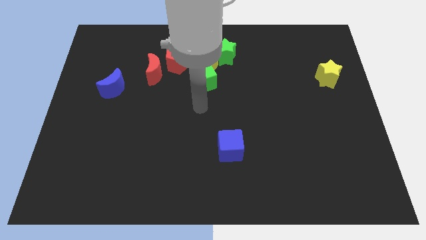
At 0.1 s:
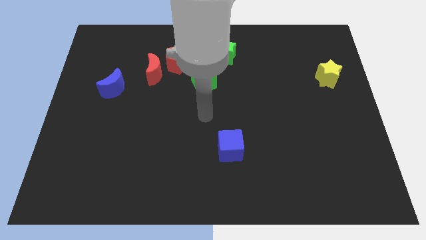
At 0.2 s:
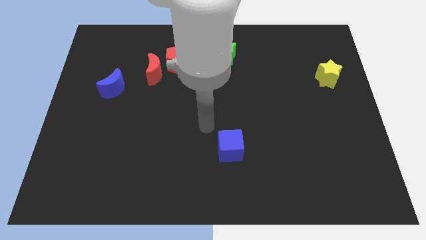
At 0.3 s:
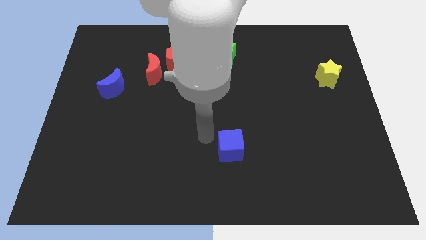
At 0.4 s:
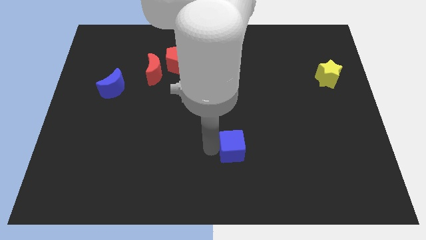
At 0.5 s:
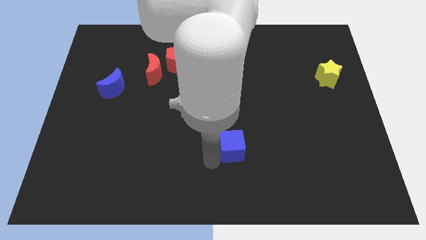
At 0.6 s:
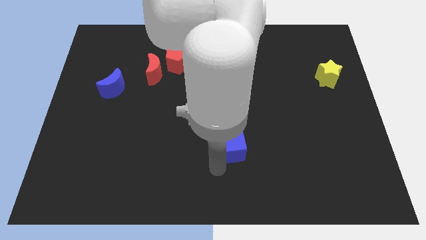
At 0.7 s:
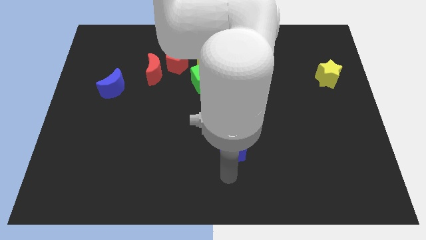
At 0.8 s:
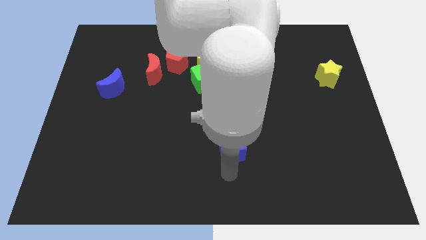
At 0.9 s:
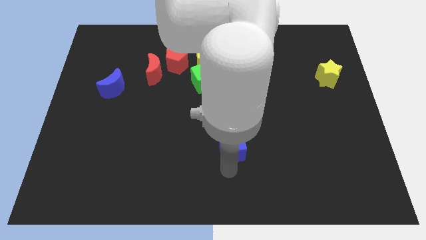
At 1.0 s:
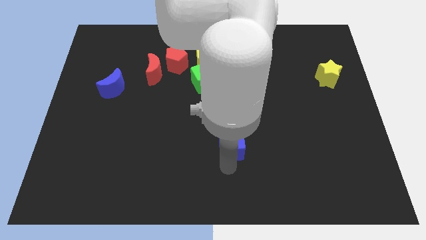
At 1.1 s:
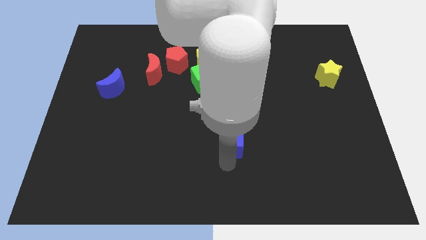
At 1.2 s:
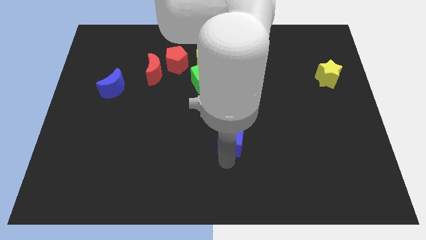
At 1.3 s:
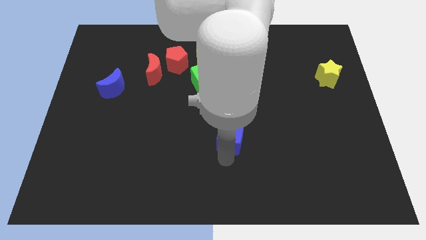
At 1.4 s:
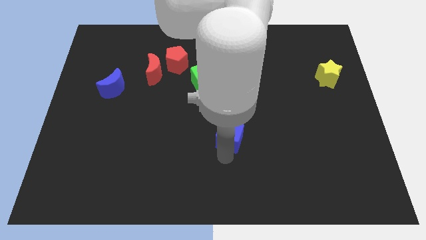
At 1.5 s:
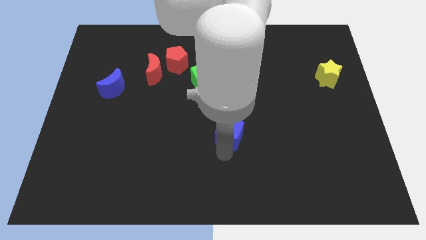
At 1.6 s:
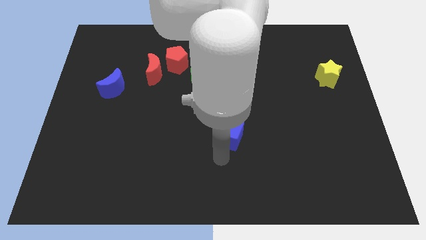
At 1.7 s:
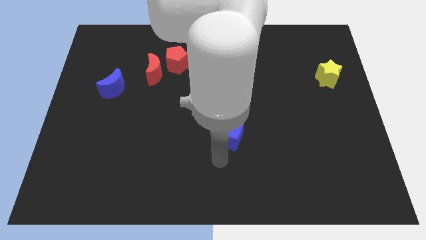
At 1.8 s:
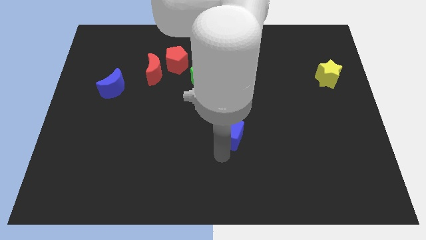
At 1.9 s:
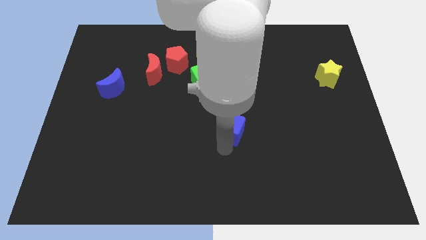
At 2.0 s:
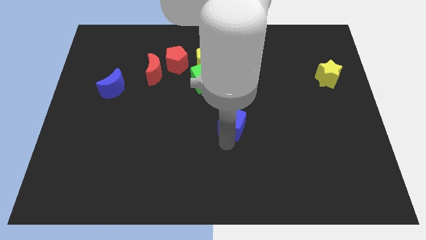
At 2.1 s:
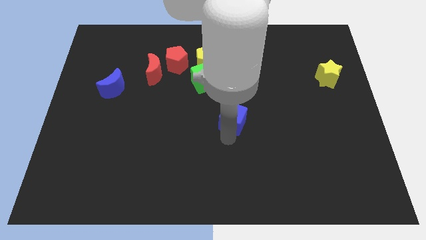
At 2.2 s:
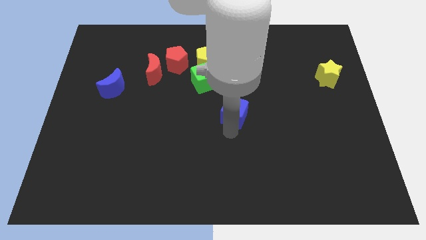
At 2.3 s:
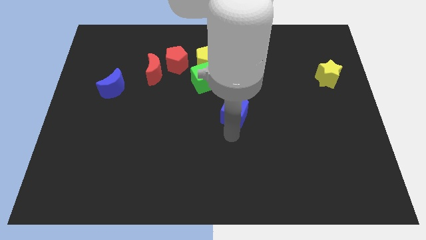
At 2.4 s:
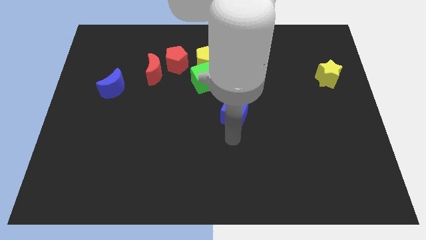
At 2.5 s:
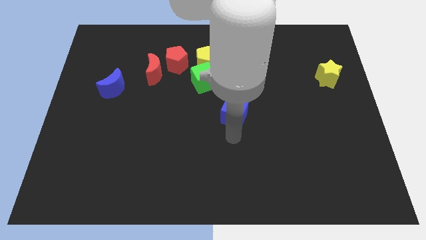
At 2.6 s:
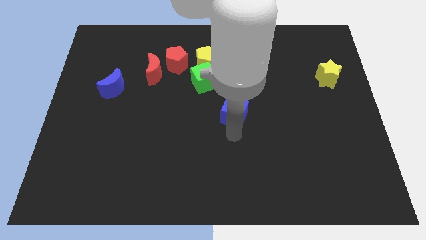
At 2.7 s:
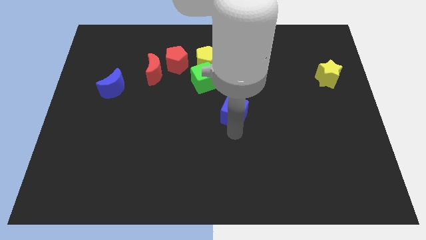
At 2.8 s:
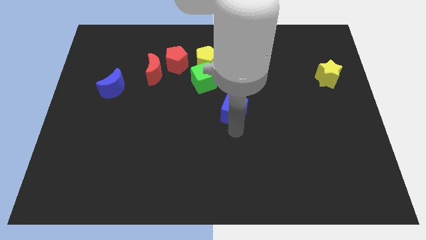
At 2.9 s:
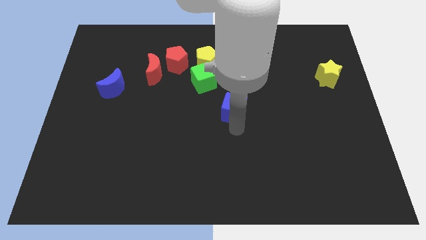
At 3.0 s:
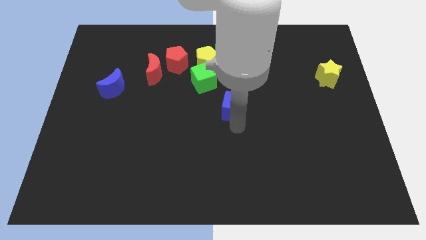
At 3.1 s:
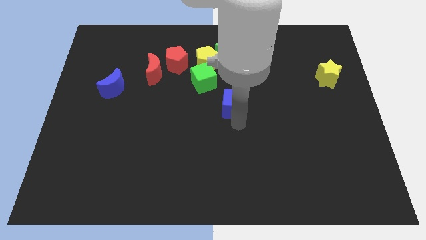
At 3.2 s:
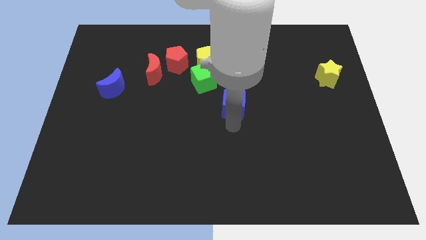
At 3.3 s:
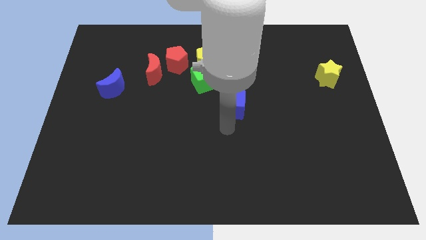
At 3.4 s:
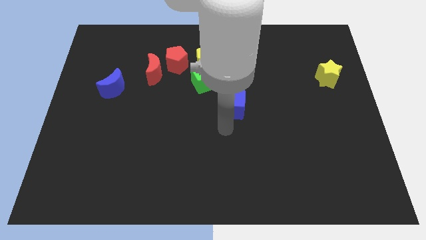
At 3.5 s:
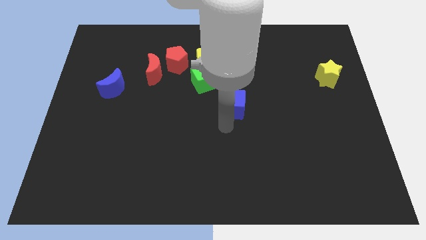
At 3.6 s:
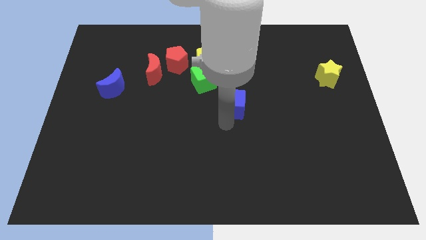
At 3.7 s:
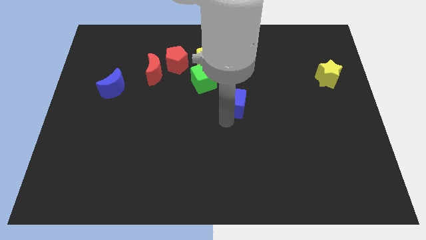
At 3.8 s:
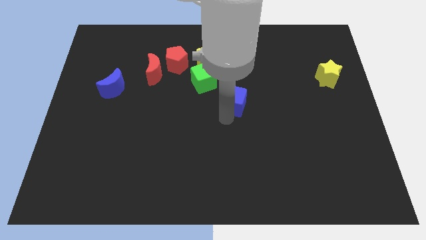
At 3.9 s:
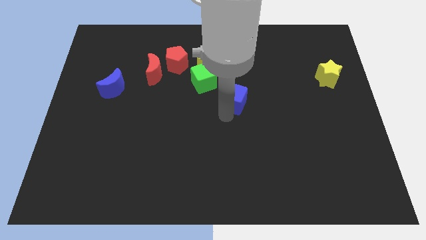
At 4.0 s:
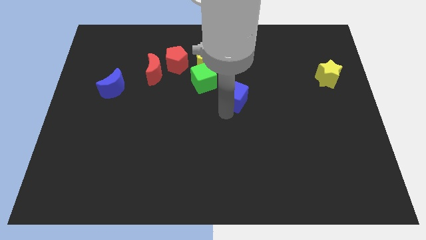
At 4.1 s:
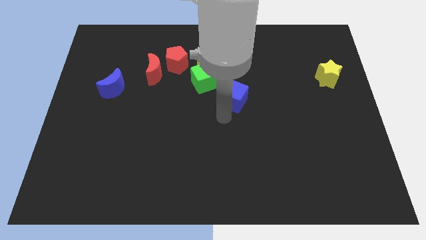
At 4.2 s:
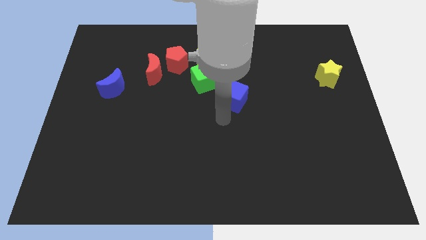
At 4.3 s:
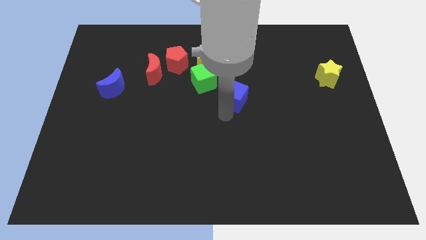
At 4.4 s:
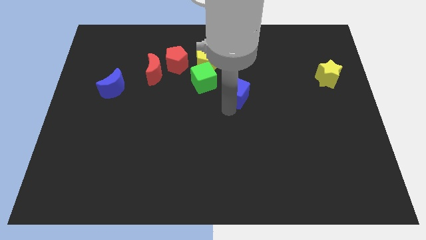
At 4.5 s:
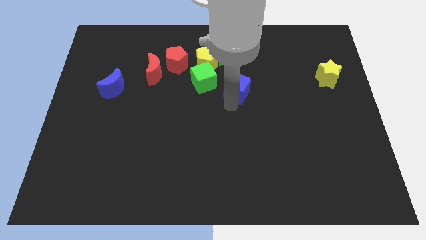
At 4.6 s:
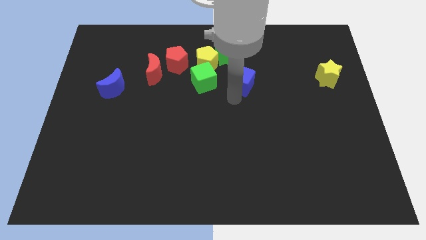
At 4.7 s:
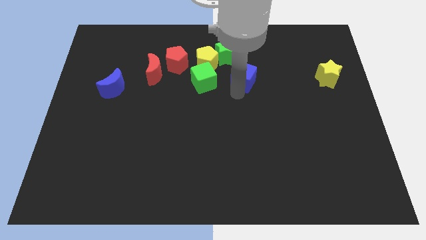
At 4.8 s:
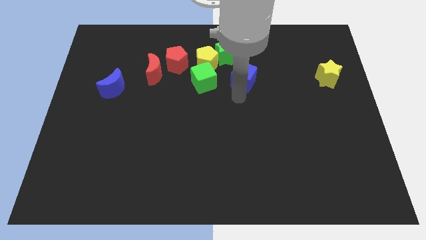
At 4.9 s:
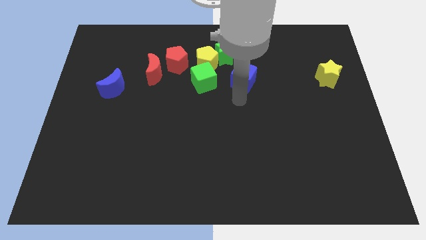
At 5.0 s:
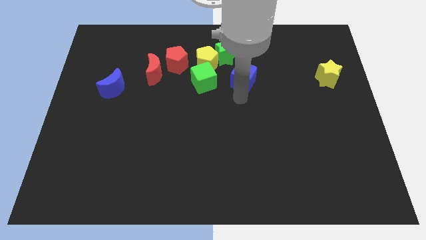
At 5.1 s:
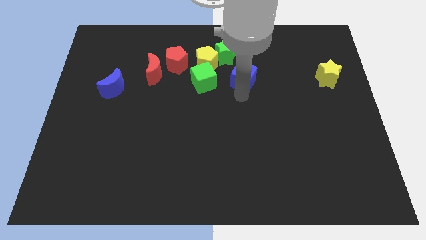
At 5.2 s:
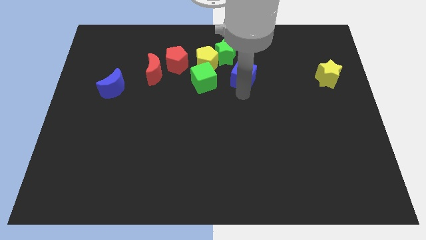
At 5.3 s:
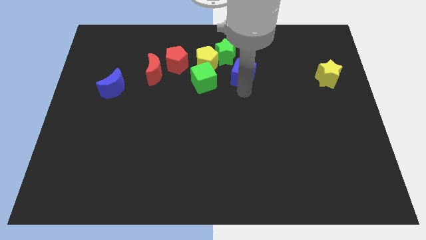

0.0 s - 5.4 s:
move the blue cube just right of the yellow pentagon

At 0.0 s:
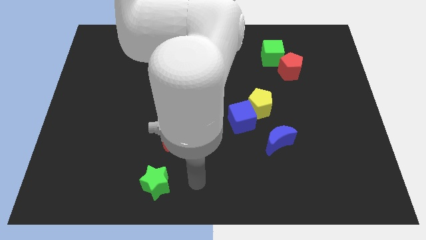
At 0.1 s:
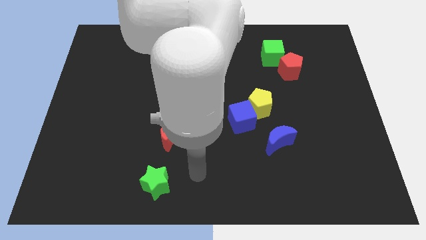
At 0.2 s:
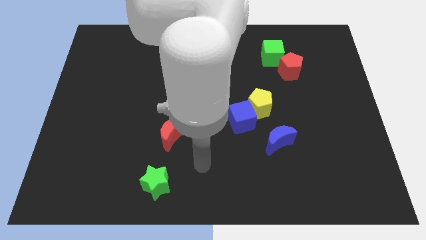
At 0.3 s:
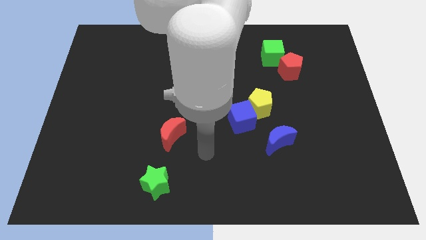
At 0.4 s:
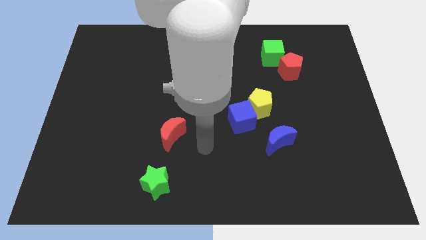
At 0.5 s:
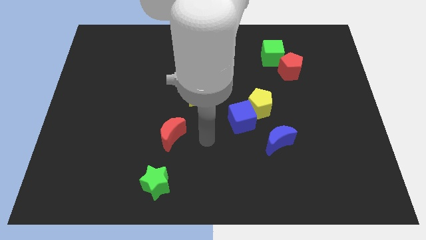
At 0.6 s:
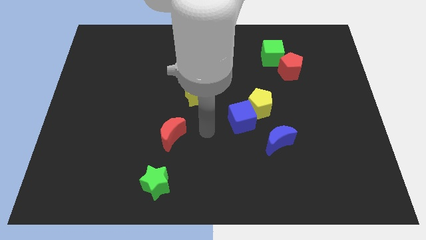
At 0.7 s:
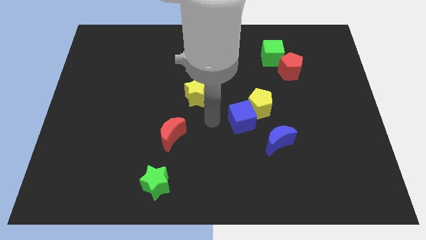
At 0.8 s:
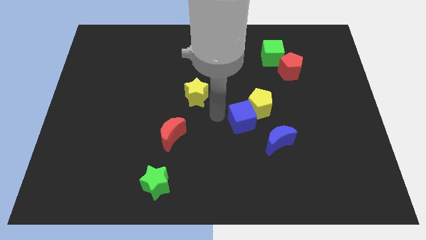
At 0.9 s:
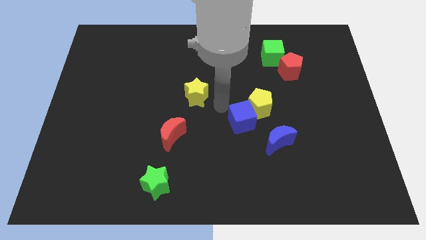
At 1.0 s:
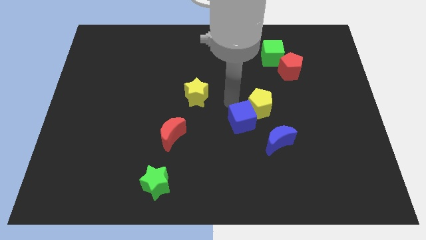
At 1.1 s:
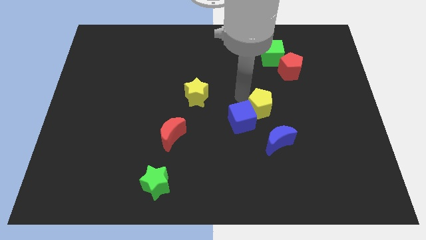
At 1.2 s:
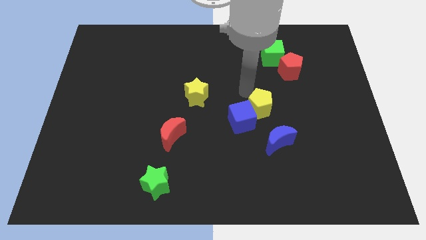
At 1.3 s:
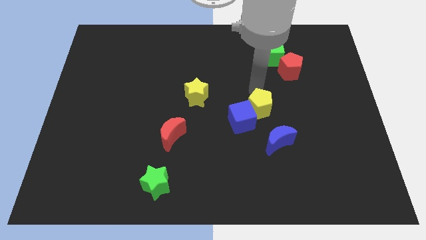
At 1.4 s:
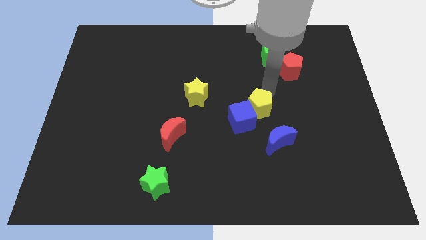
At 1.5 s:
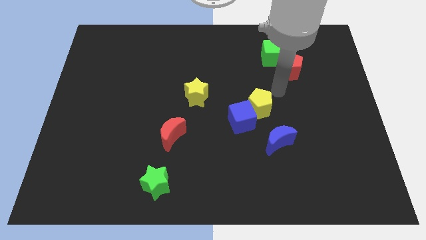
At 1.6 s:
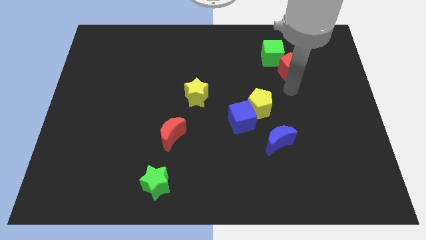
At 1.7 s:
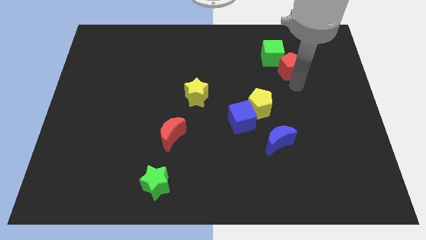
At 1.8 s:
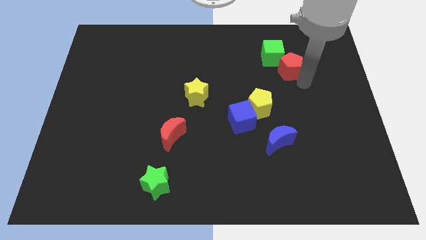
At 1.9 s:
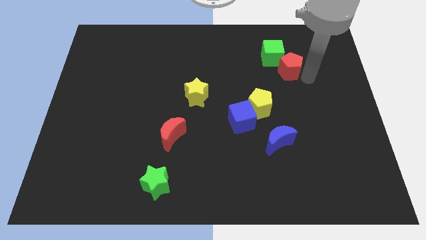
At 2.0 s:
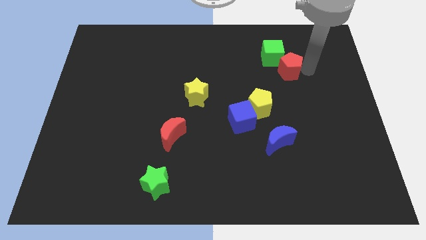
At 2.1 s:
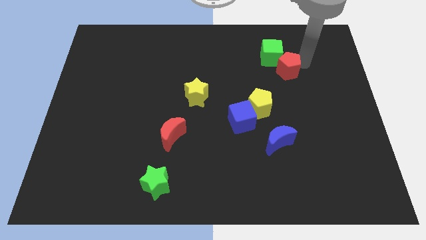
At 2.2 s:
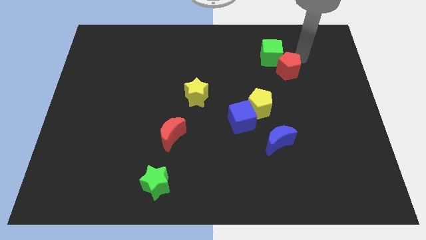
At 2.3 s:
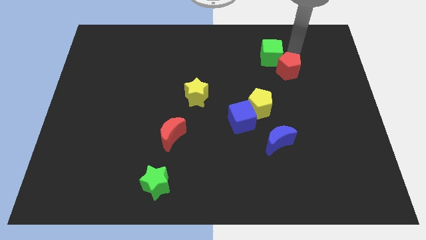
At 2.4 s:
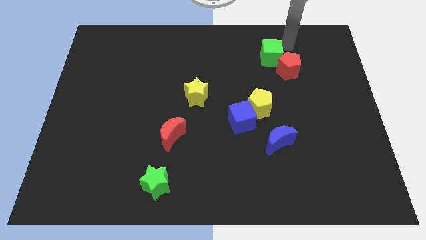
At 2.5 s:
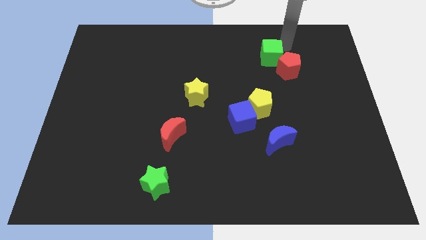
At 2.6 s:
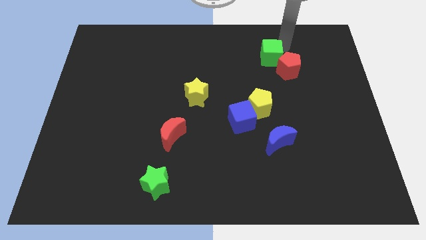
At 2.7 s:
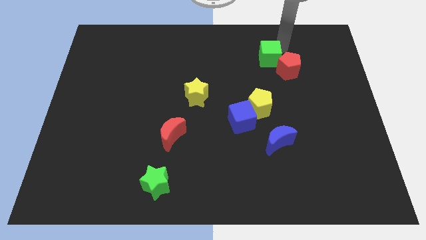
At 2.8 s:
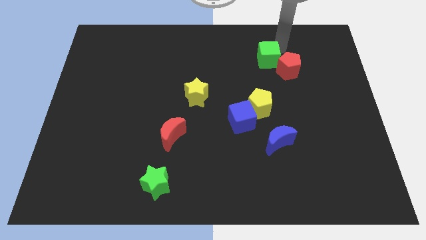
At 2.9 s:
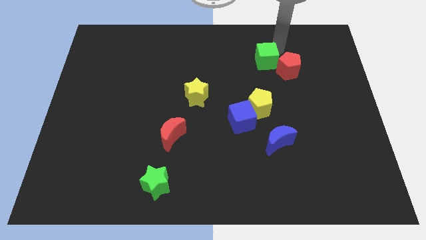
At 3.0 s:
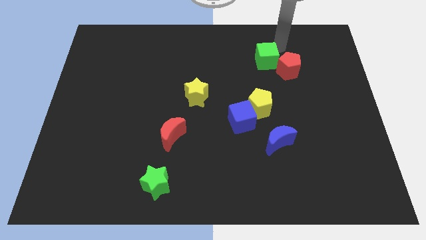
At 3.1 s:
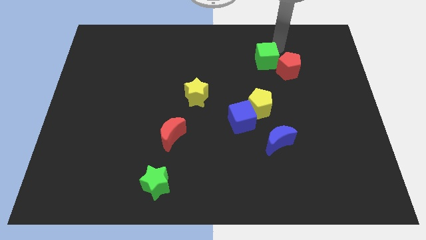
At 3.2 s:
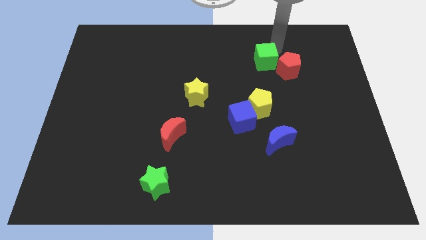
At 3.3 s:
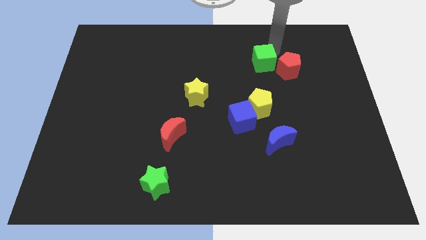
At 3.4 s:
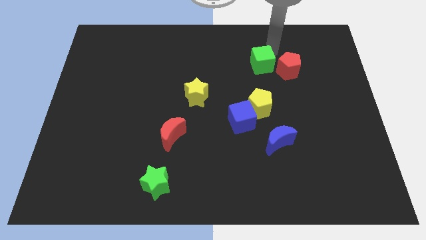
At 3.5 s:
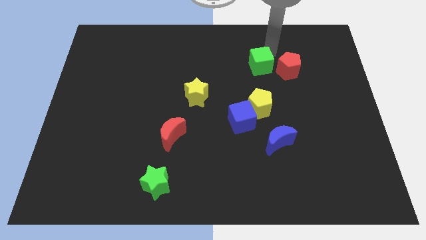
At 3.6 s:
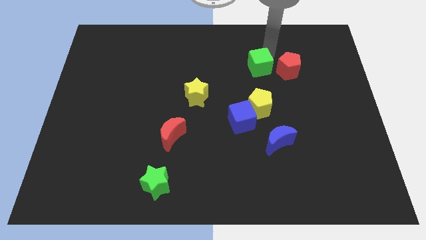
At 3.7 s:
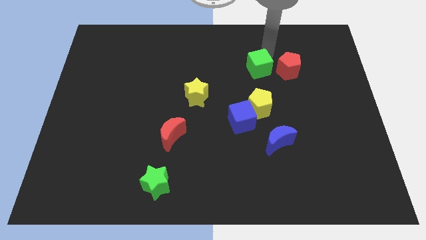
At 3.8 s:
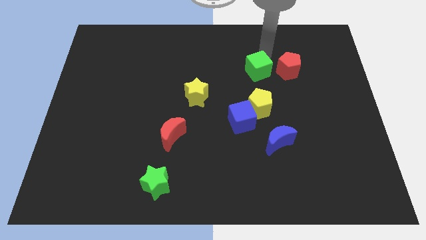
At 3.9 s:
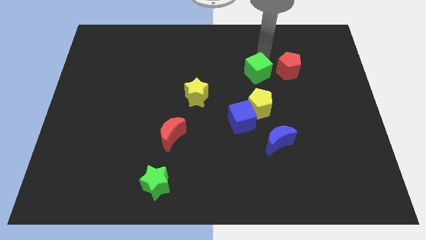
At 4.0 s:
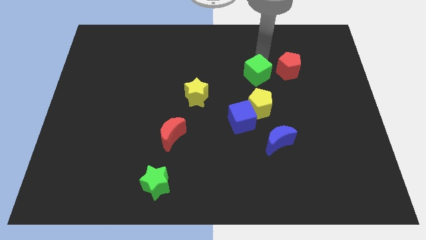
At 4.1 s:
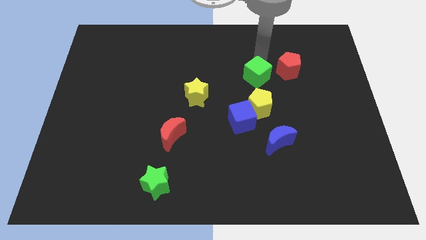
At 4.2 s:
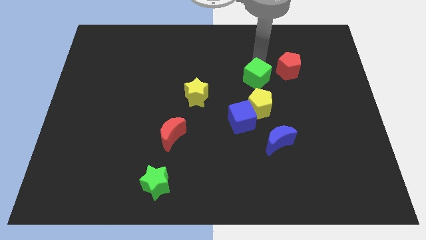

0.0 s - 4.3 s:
push the green cube to the top of the blue cube
